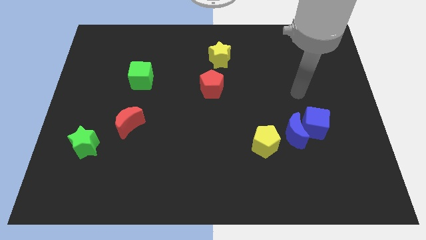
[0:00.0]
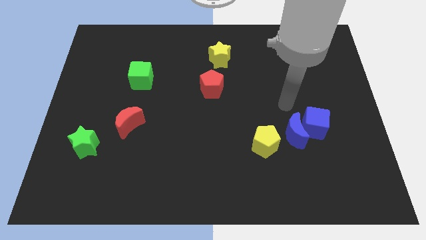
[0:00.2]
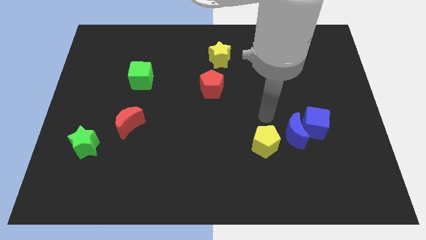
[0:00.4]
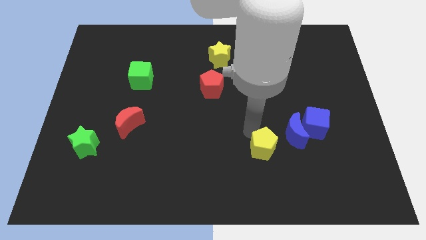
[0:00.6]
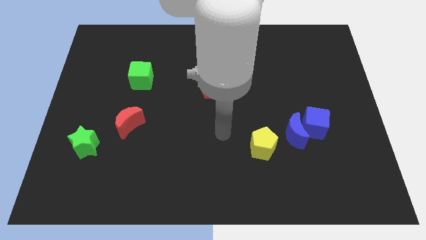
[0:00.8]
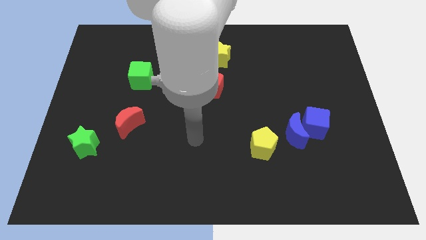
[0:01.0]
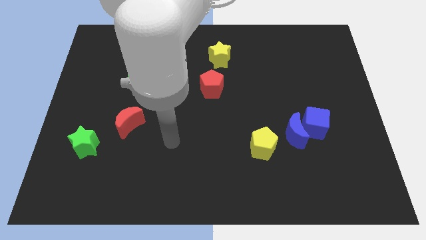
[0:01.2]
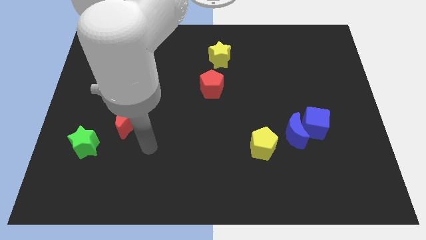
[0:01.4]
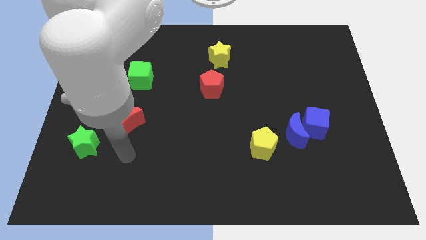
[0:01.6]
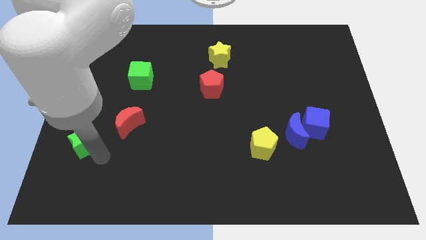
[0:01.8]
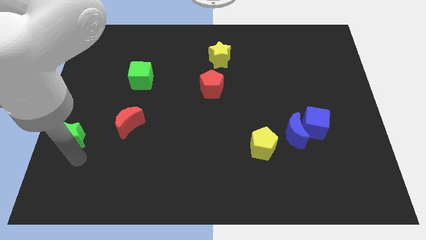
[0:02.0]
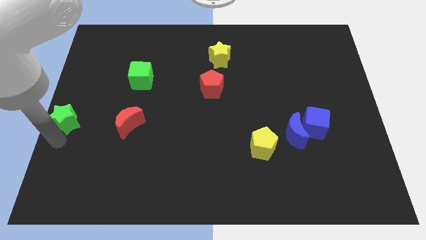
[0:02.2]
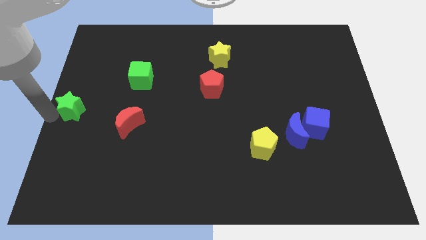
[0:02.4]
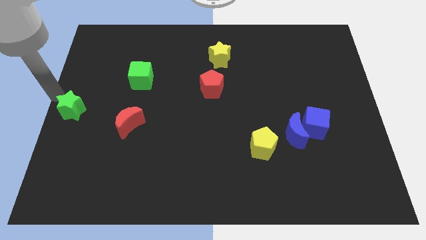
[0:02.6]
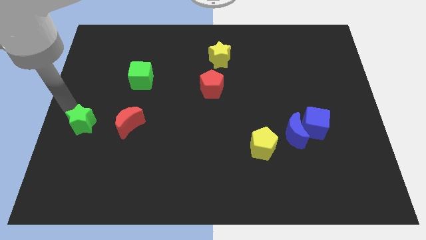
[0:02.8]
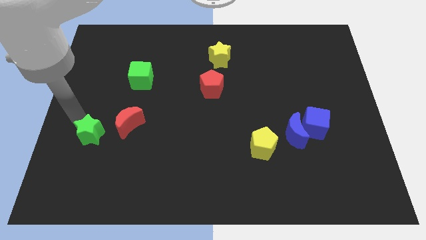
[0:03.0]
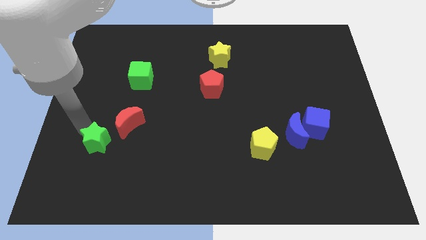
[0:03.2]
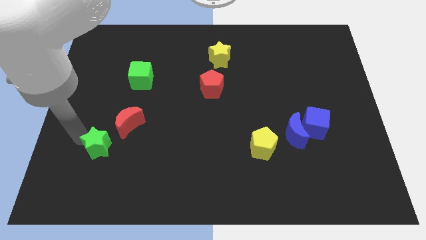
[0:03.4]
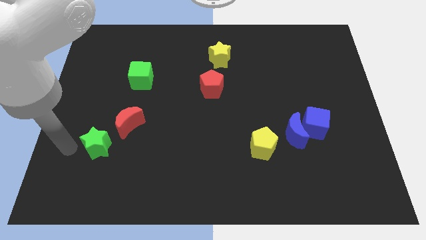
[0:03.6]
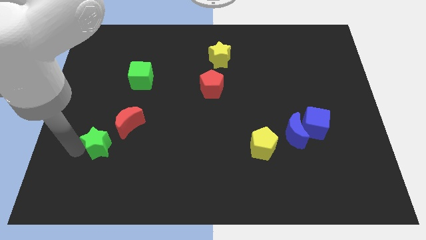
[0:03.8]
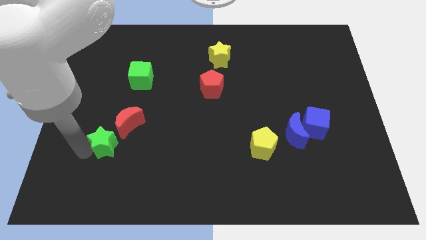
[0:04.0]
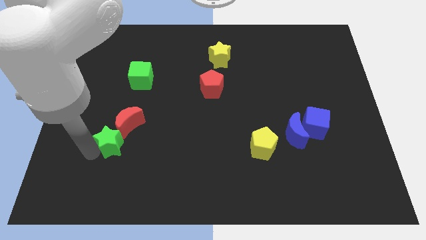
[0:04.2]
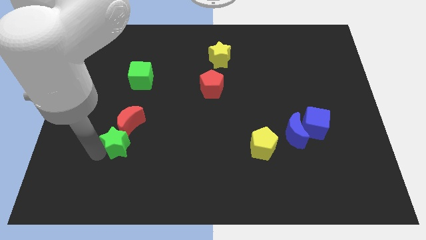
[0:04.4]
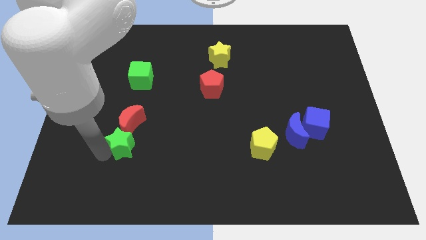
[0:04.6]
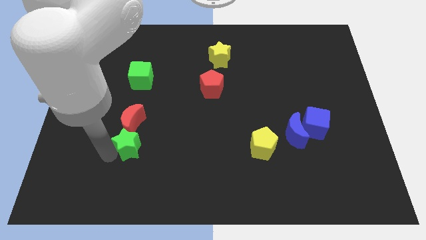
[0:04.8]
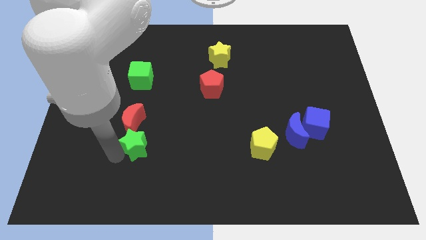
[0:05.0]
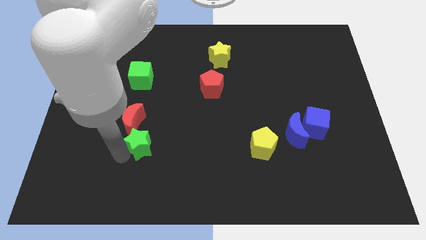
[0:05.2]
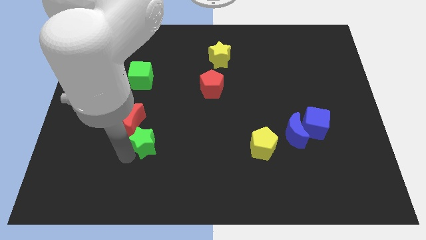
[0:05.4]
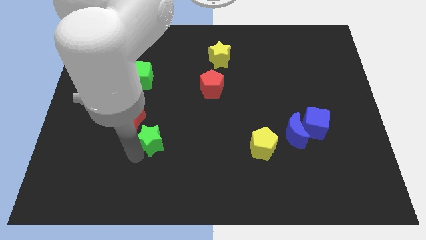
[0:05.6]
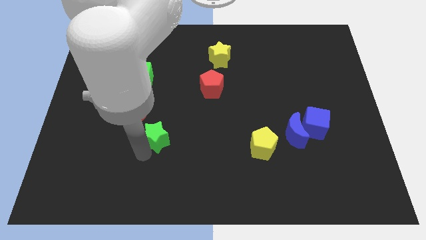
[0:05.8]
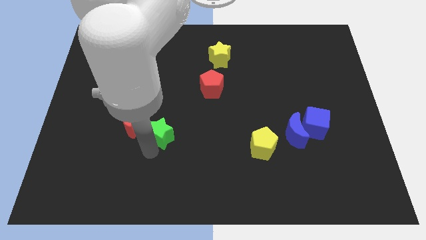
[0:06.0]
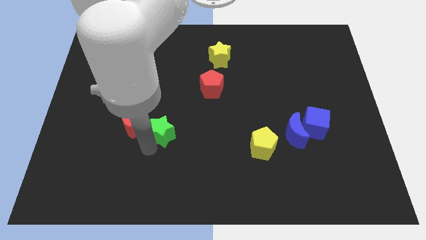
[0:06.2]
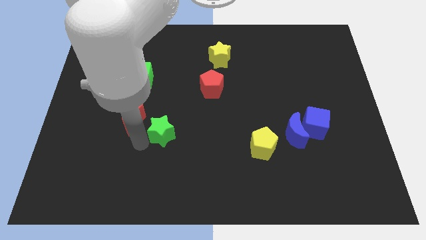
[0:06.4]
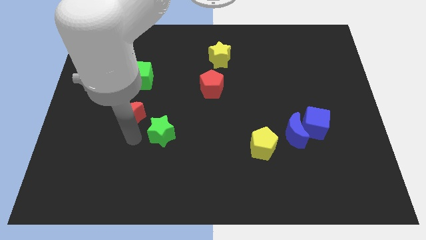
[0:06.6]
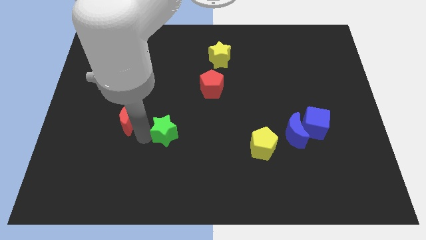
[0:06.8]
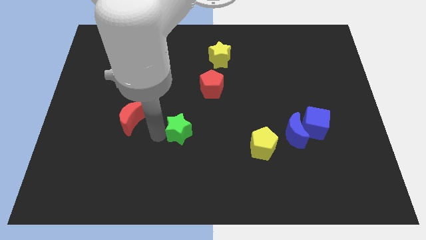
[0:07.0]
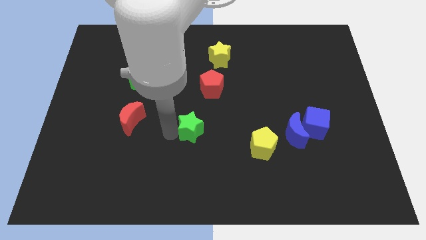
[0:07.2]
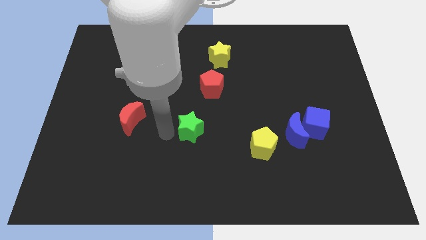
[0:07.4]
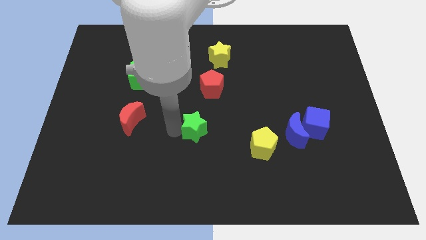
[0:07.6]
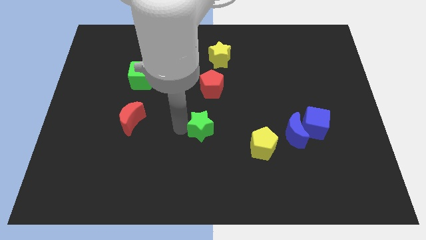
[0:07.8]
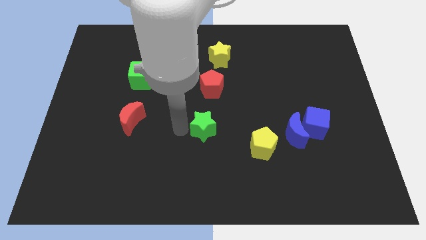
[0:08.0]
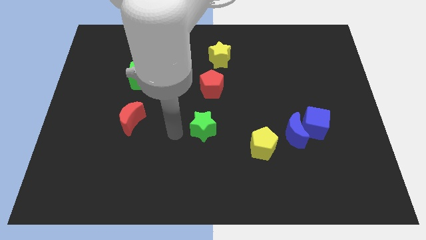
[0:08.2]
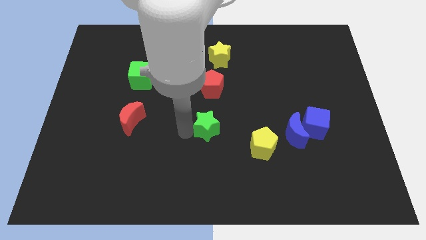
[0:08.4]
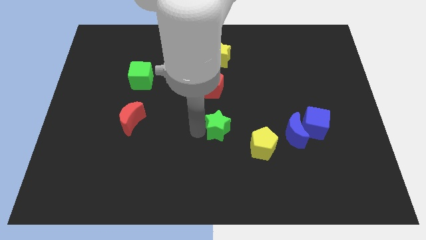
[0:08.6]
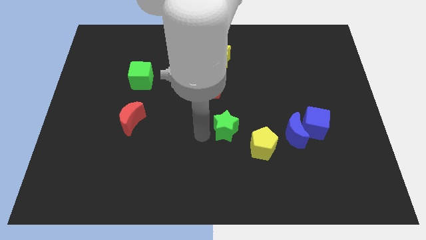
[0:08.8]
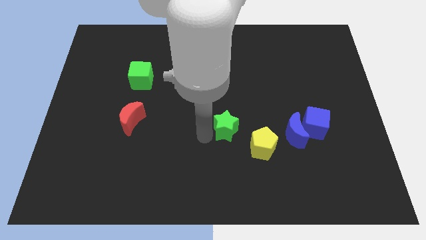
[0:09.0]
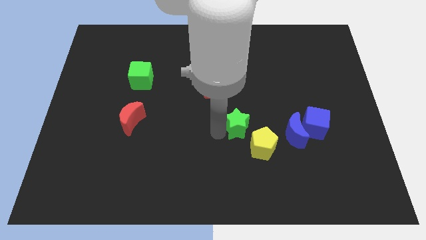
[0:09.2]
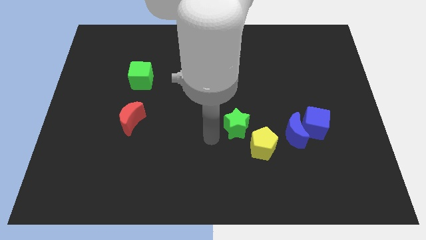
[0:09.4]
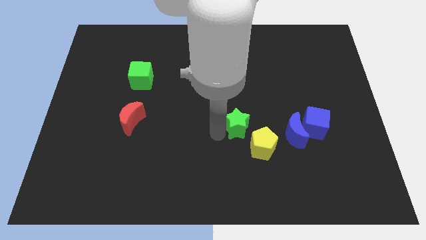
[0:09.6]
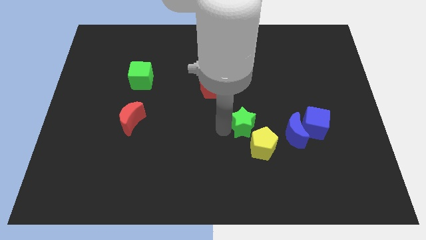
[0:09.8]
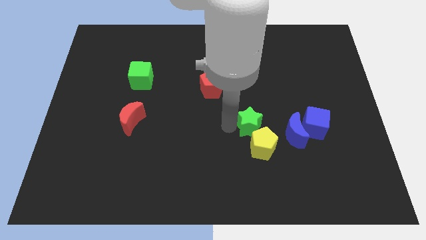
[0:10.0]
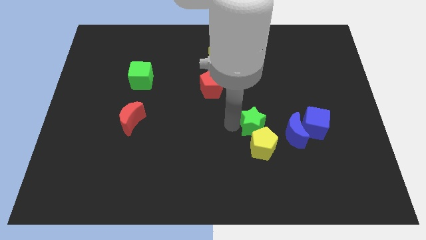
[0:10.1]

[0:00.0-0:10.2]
push the green star to the top left of the blue moon

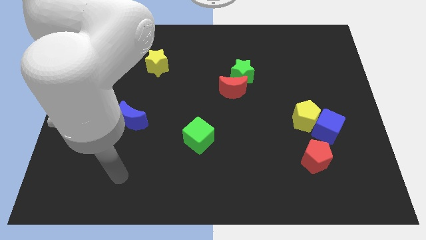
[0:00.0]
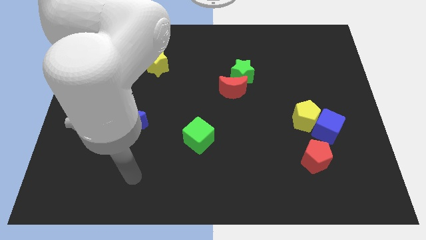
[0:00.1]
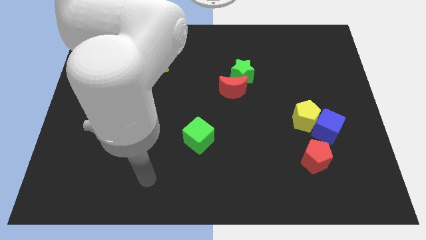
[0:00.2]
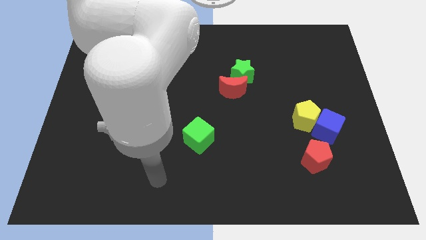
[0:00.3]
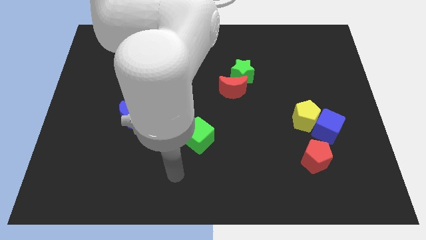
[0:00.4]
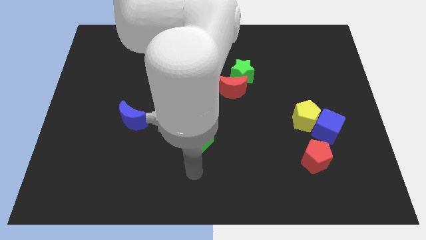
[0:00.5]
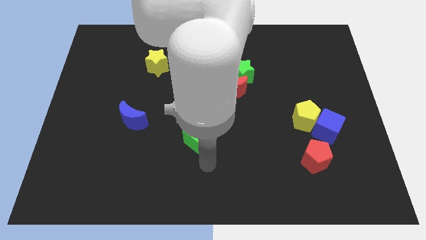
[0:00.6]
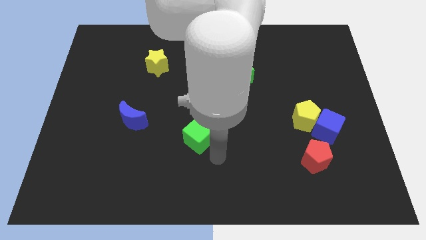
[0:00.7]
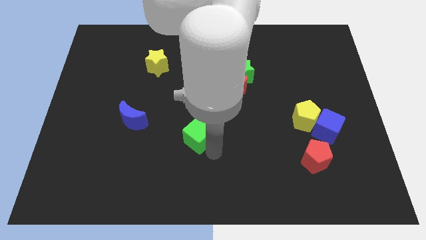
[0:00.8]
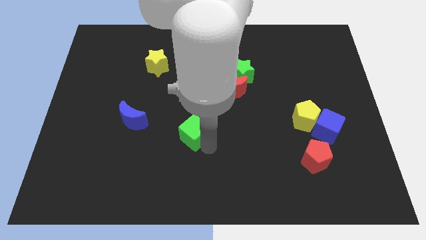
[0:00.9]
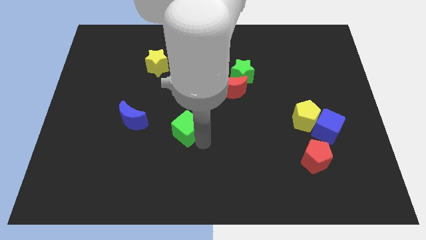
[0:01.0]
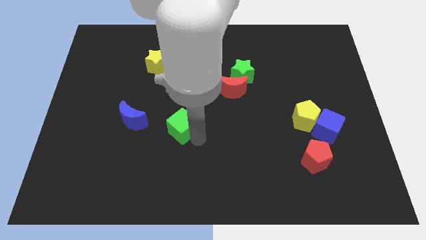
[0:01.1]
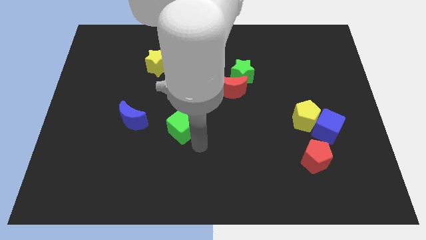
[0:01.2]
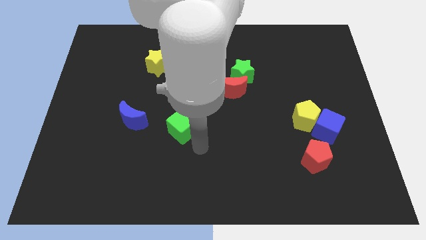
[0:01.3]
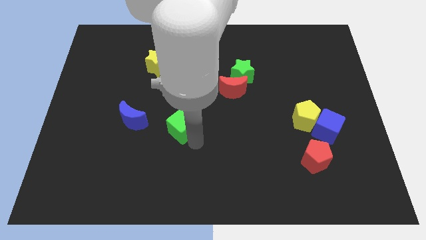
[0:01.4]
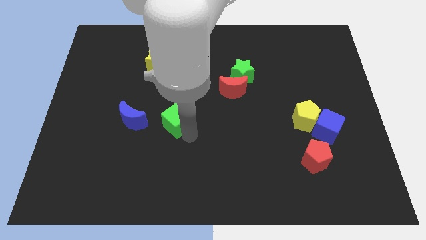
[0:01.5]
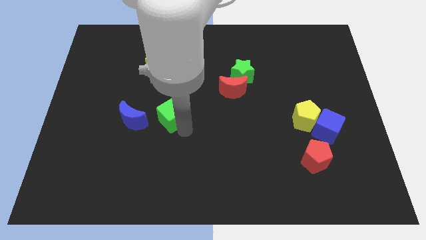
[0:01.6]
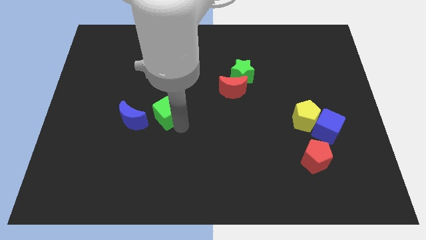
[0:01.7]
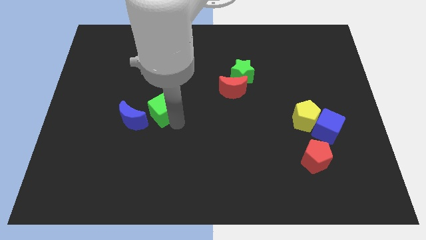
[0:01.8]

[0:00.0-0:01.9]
move the green cube below the yellow star

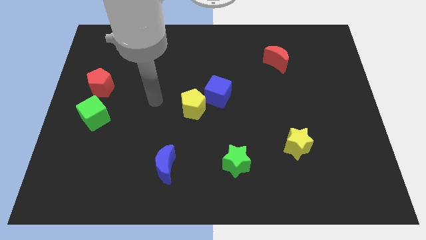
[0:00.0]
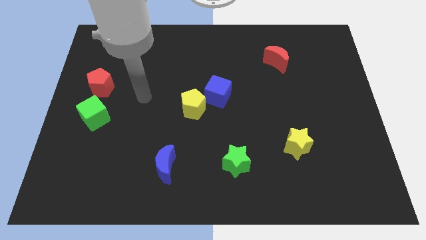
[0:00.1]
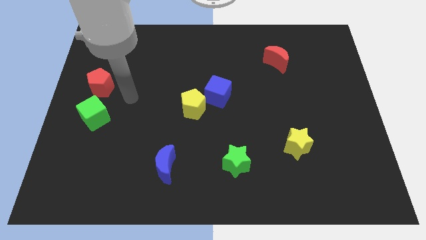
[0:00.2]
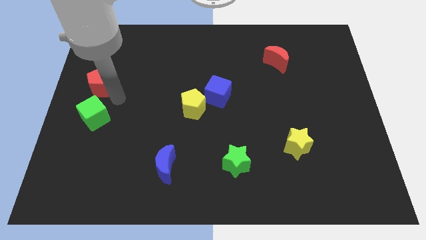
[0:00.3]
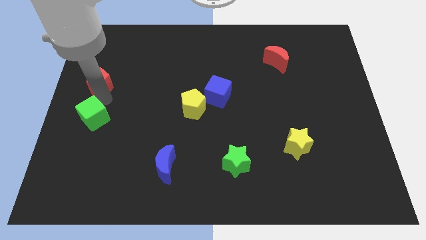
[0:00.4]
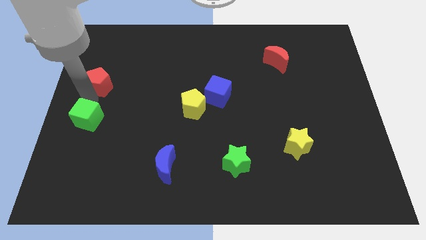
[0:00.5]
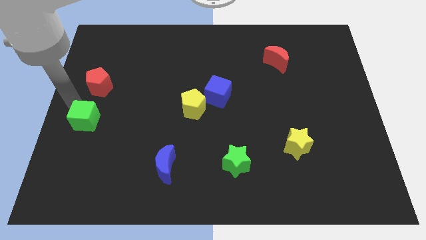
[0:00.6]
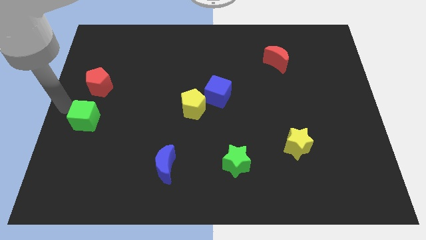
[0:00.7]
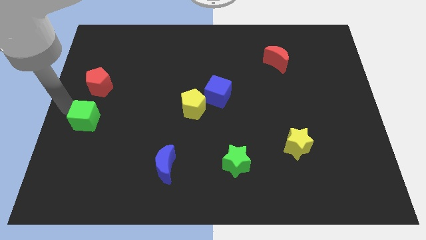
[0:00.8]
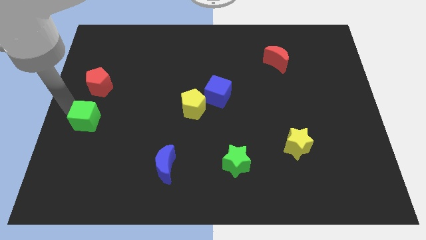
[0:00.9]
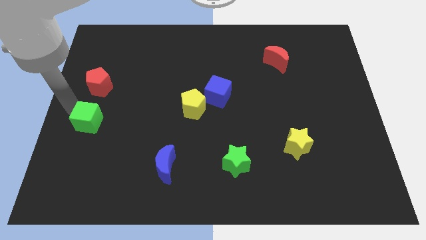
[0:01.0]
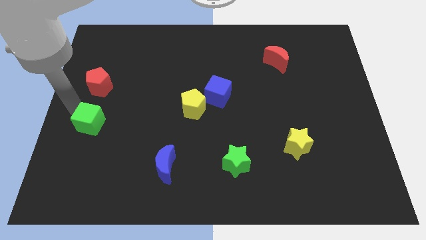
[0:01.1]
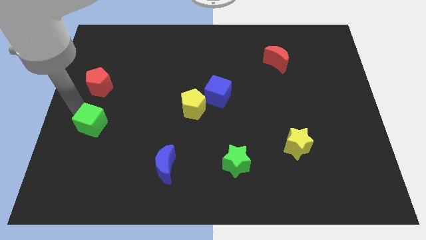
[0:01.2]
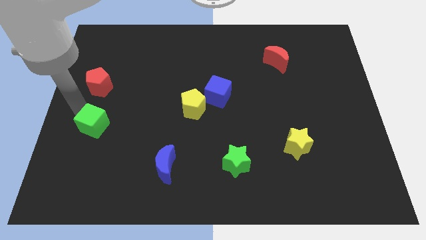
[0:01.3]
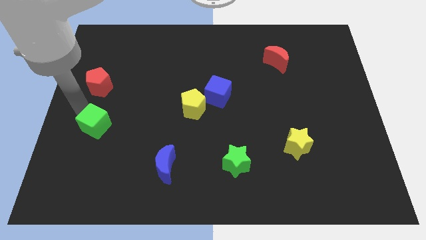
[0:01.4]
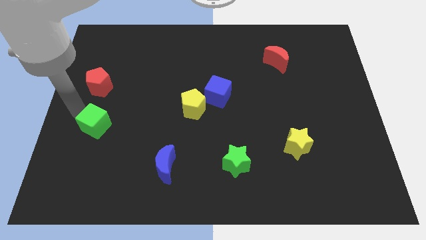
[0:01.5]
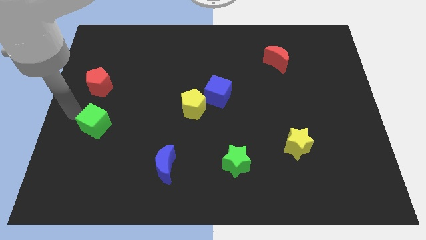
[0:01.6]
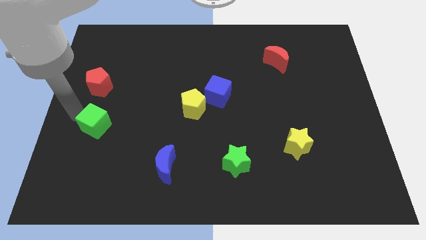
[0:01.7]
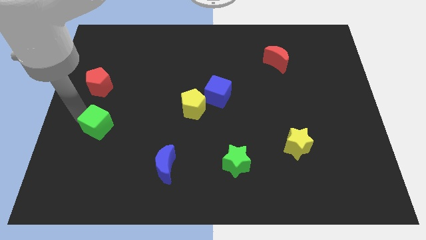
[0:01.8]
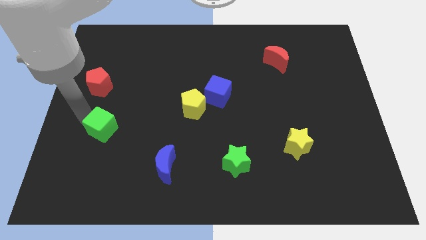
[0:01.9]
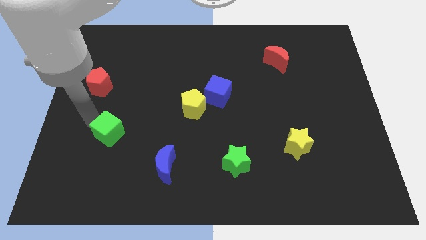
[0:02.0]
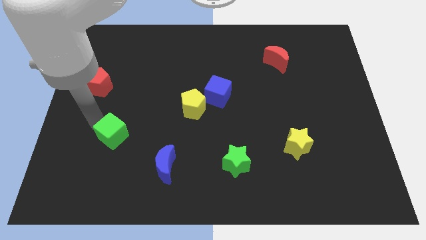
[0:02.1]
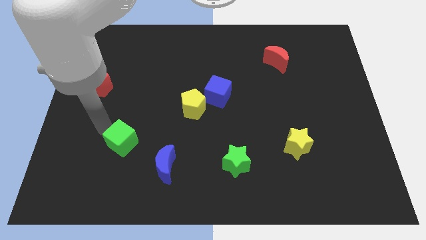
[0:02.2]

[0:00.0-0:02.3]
slide the green cube to the top left of the blue moon
